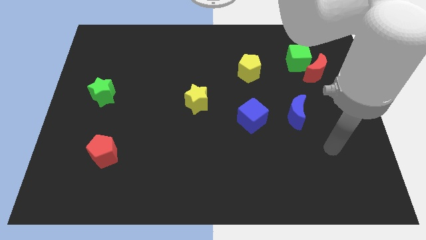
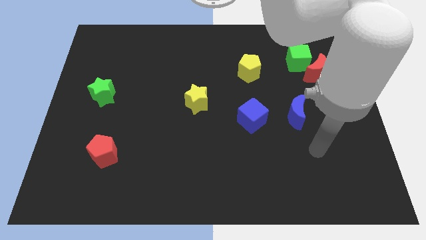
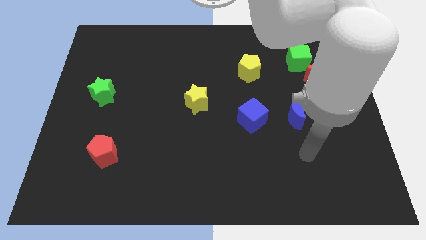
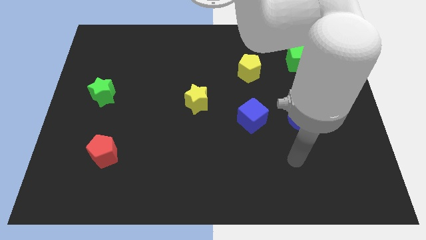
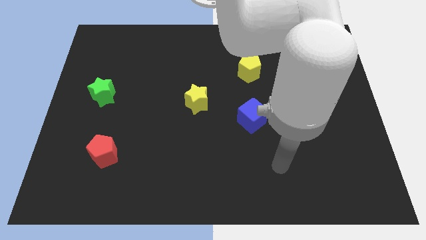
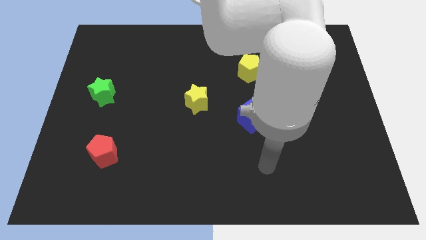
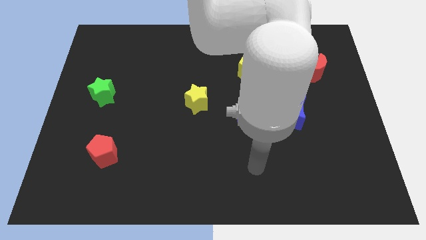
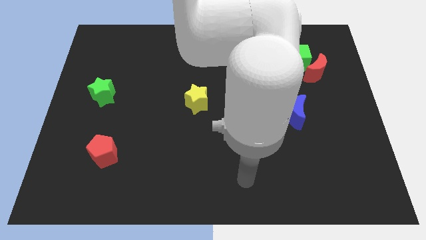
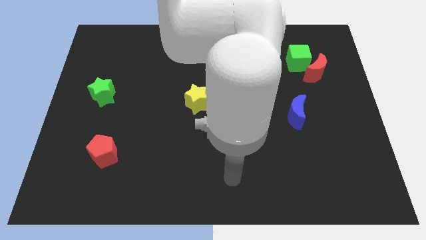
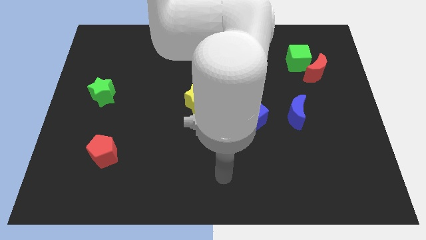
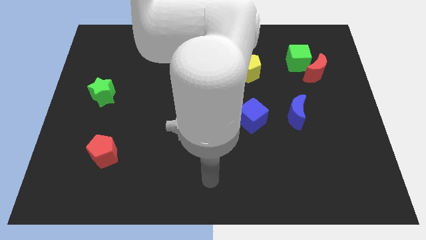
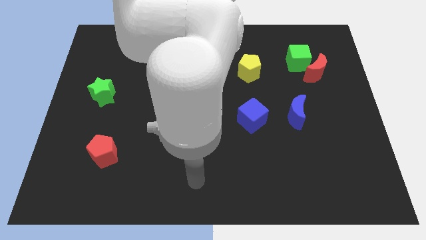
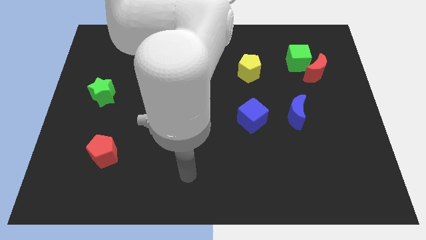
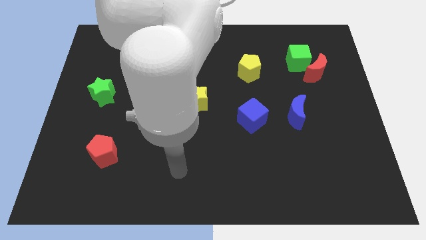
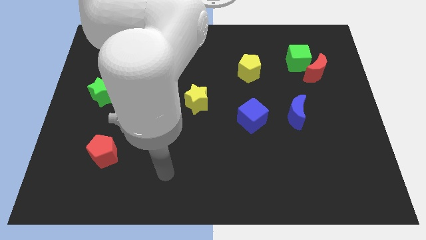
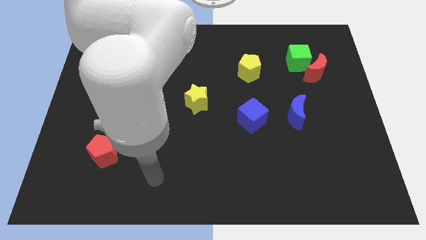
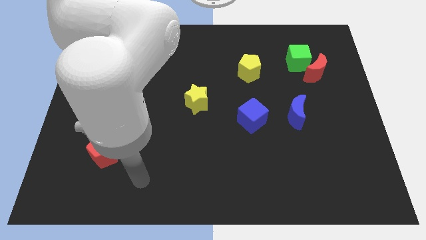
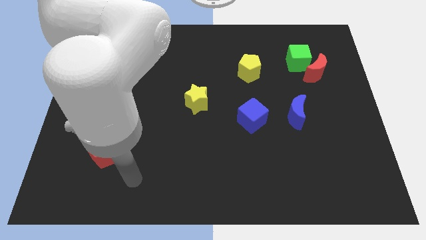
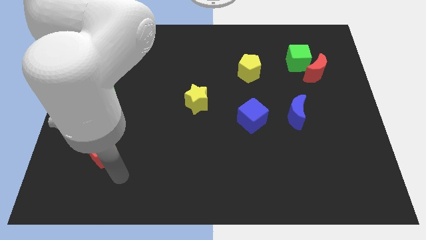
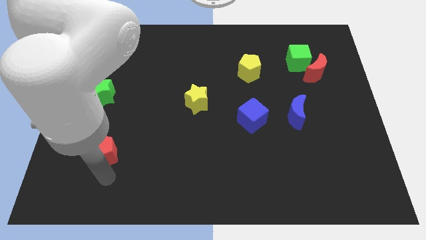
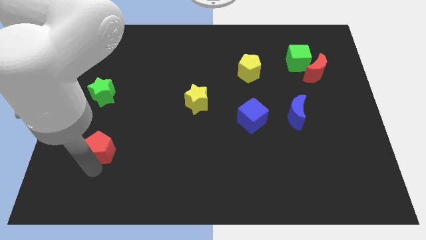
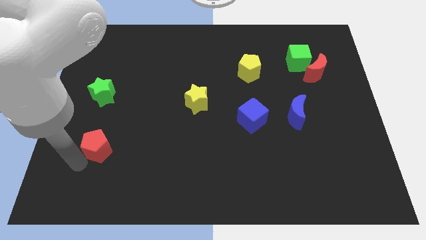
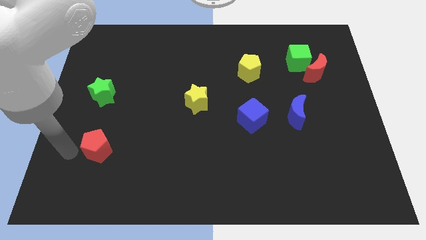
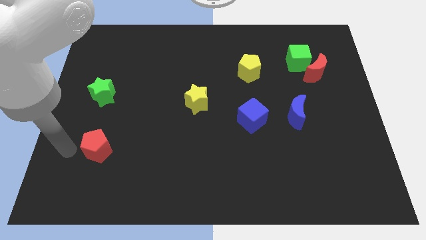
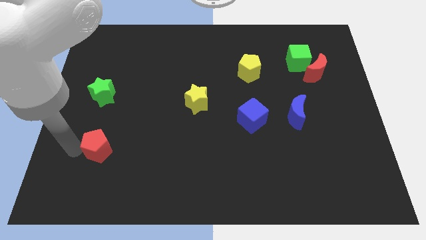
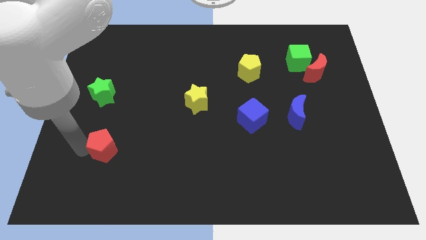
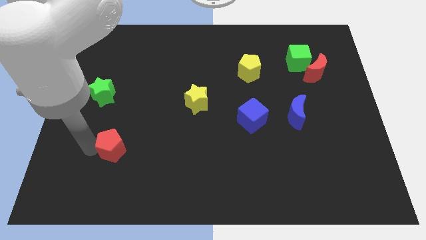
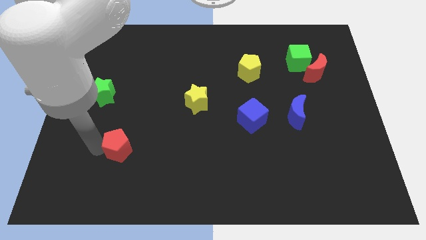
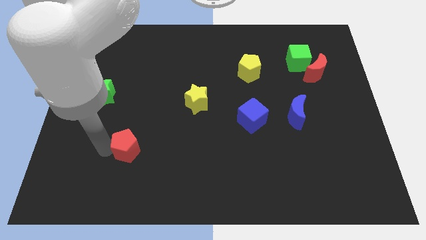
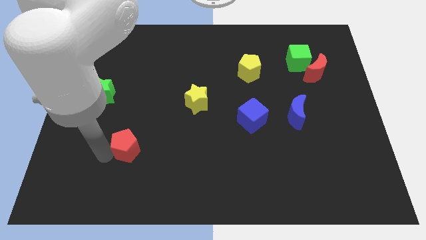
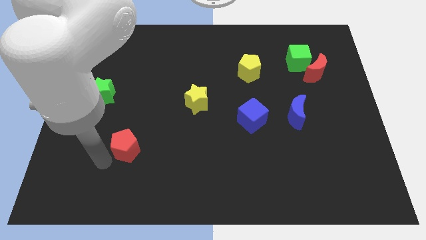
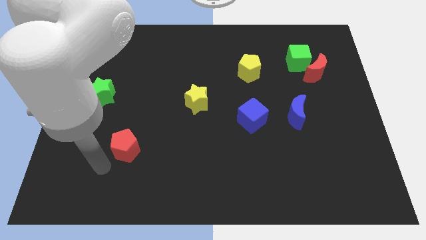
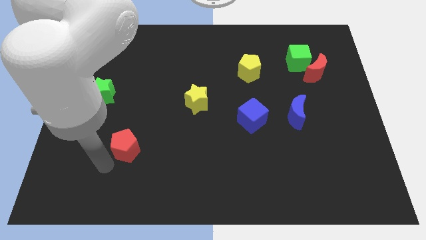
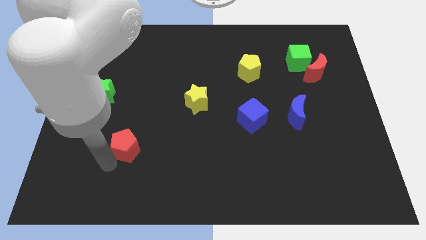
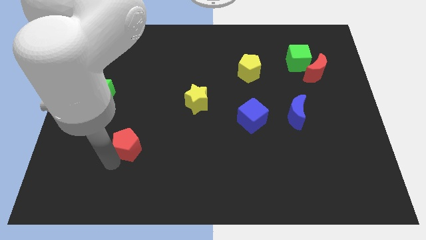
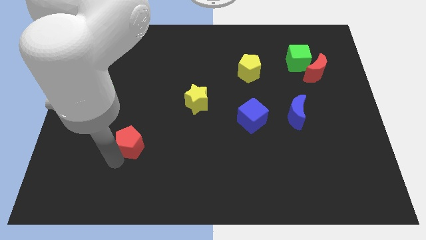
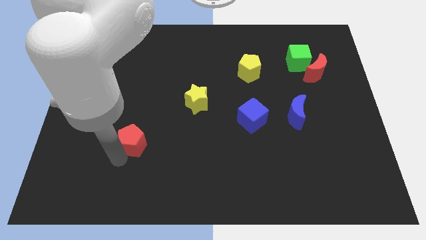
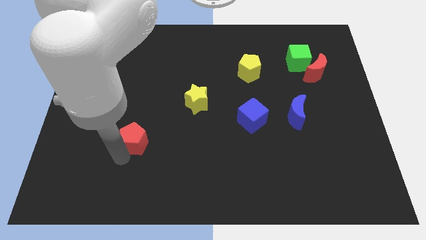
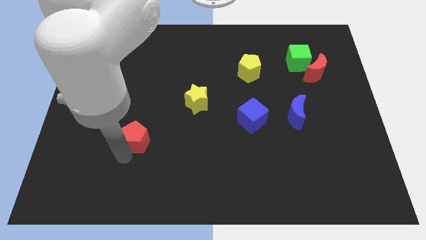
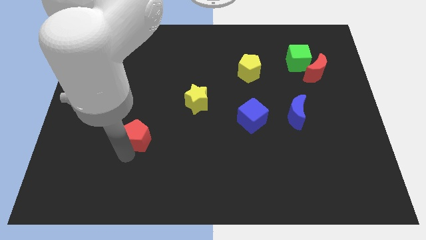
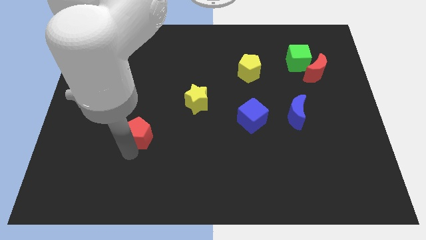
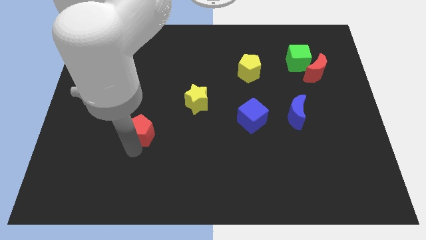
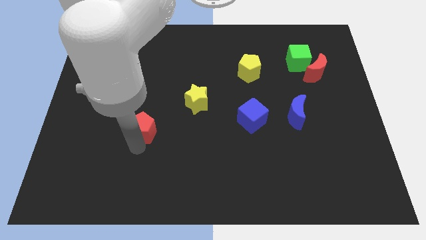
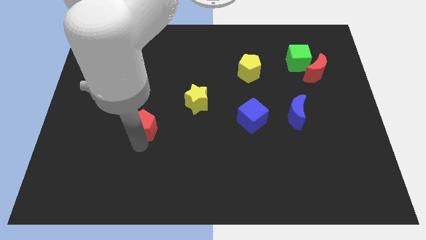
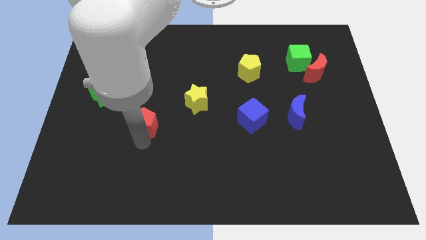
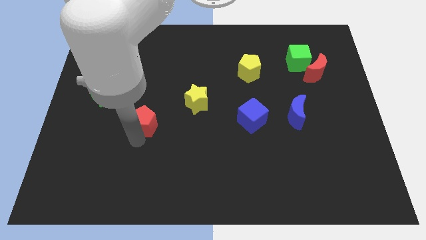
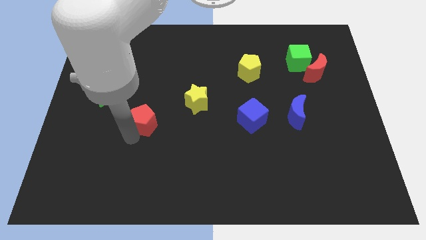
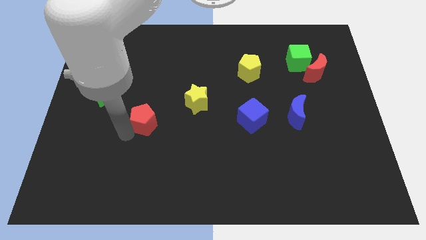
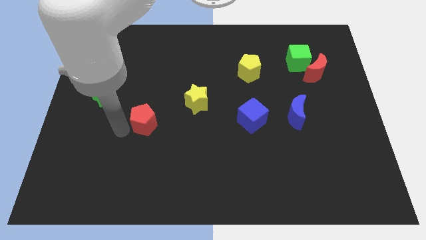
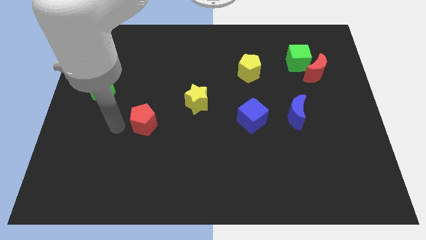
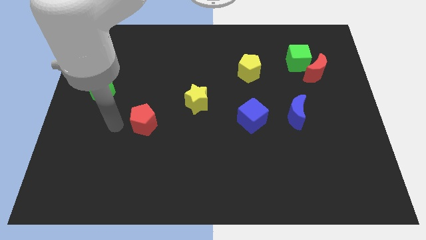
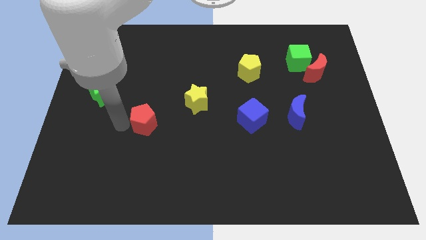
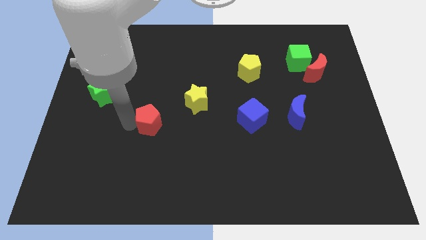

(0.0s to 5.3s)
slide the red pentagon to the bottom left of the yellow star

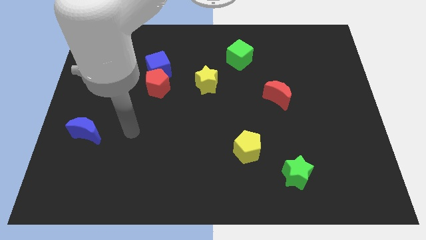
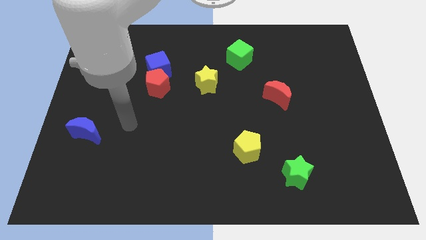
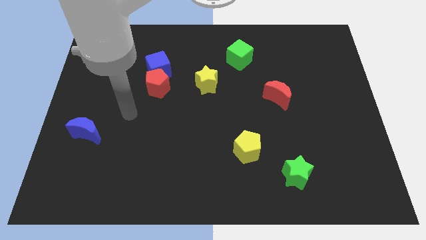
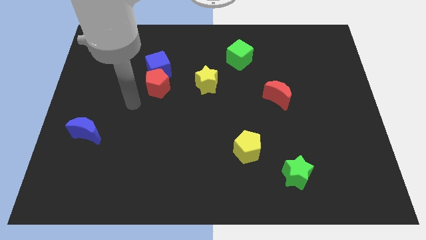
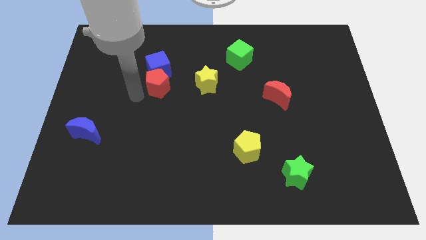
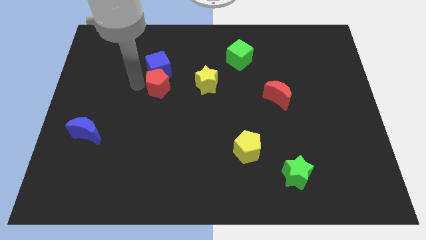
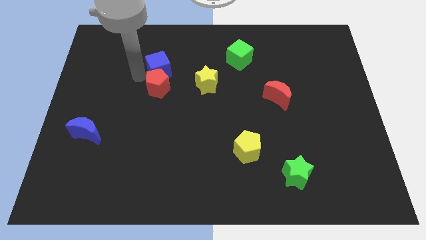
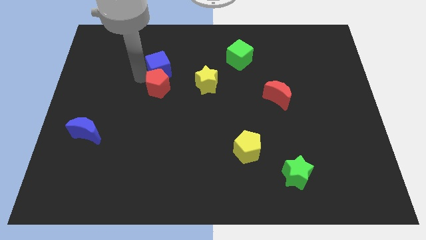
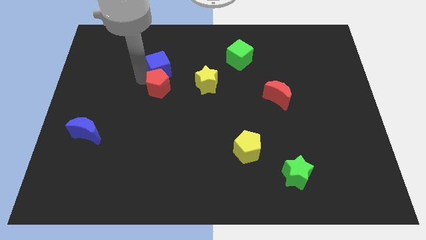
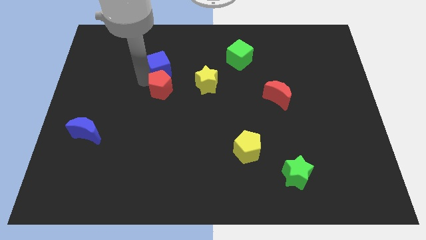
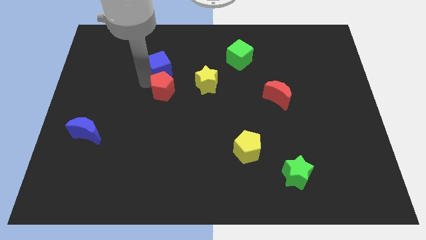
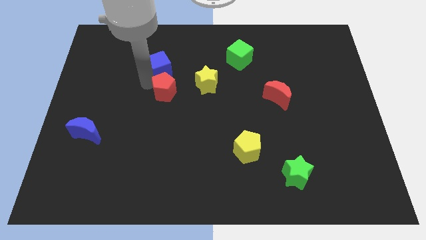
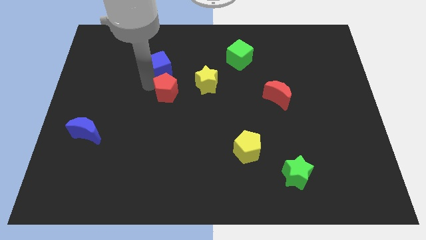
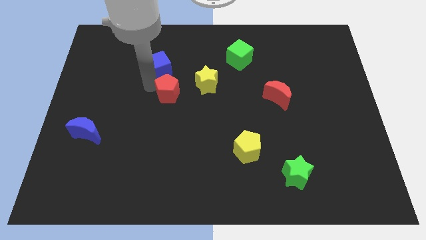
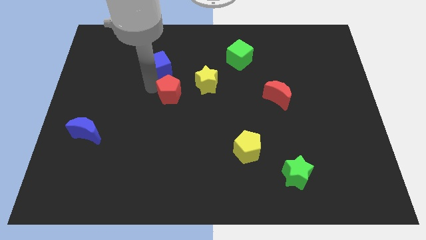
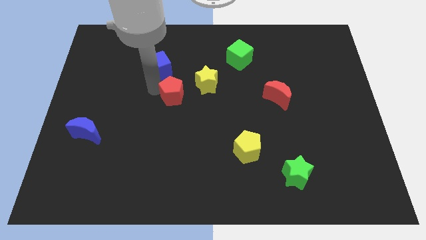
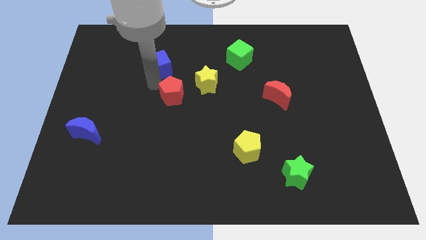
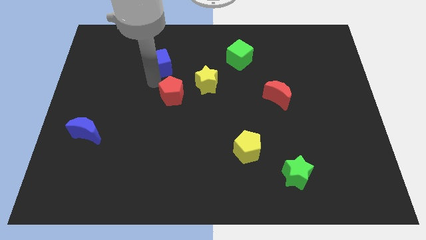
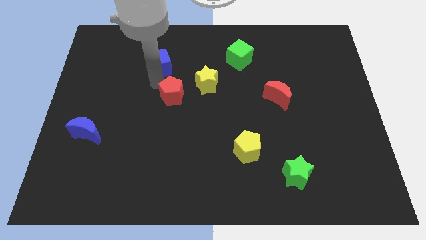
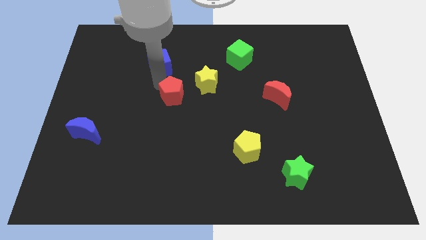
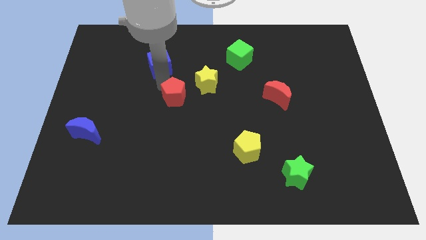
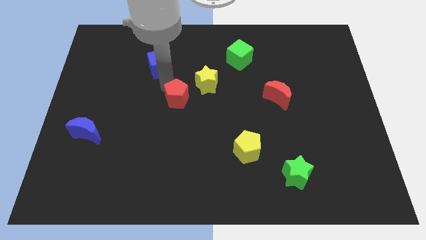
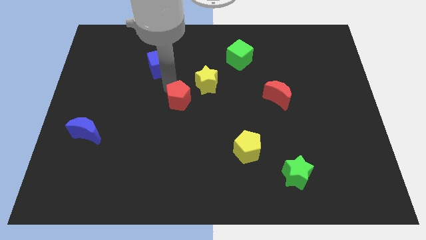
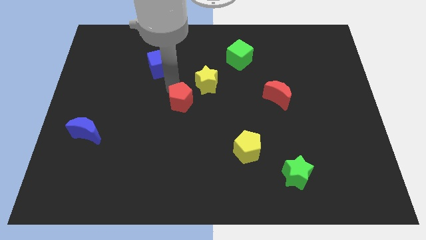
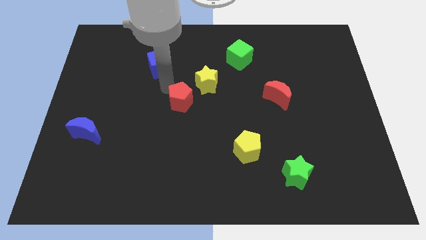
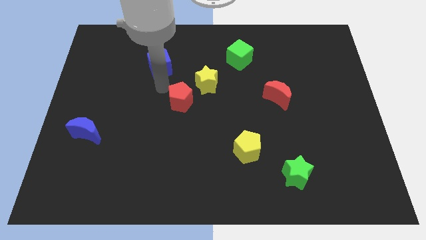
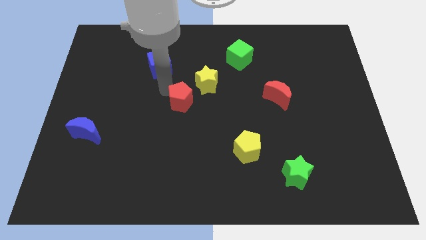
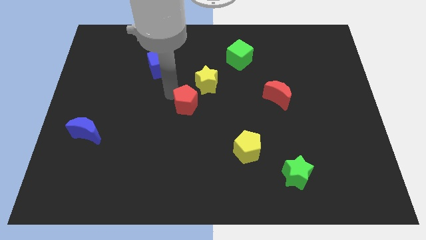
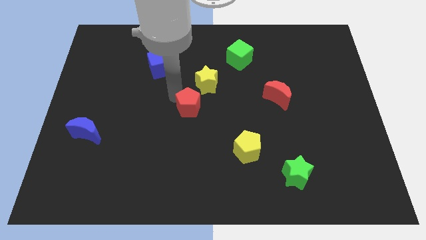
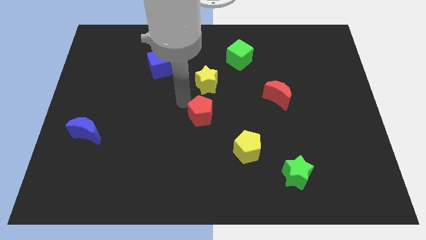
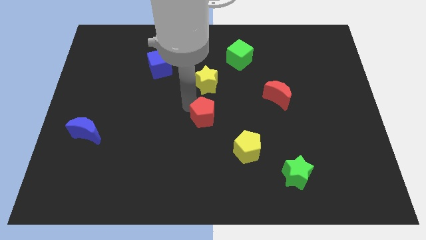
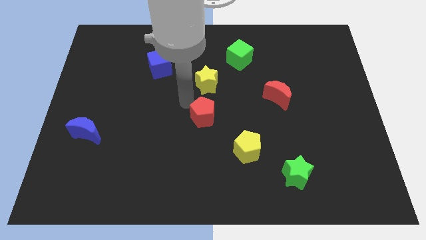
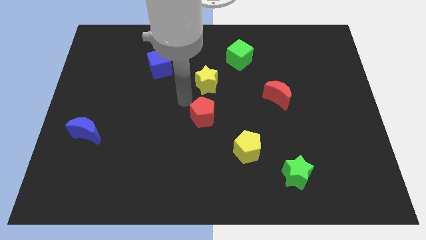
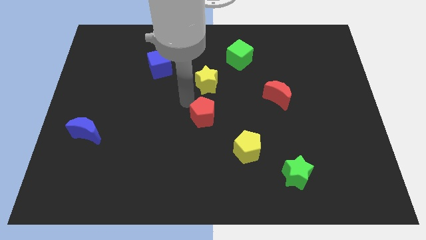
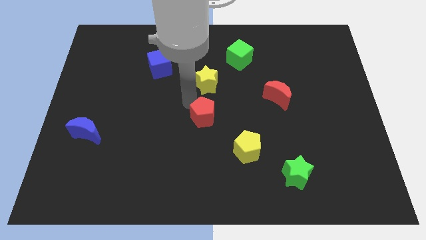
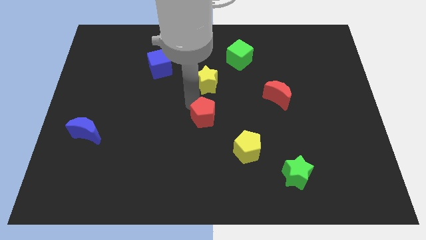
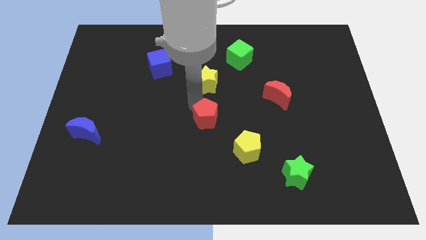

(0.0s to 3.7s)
move the red pentagon to the top left of the yellow pentagon
